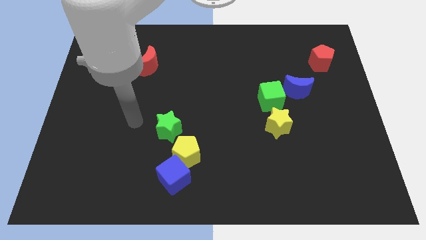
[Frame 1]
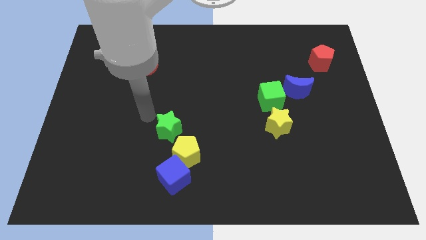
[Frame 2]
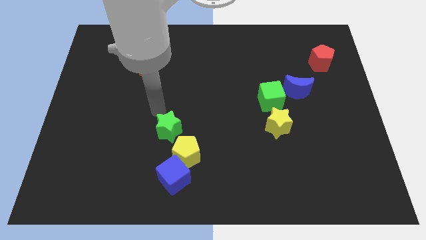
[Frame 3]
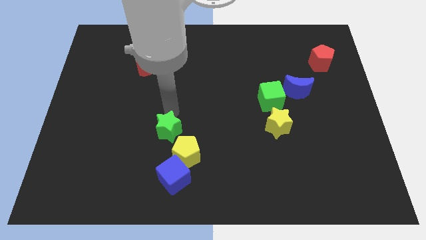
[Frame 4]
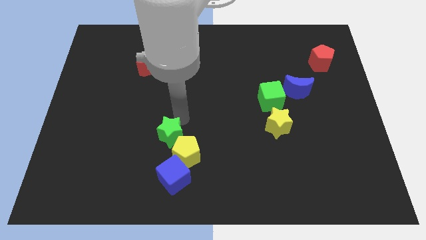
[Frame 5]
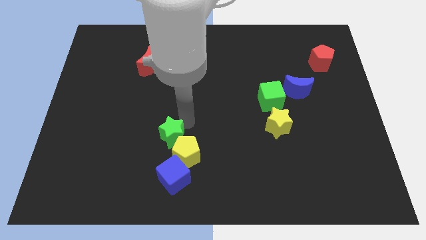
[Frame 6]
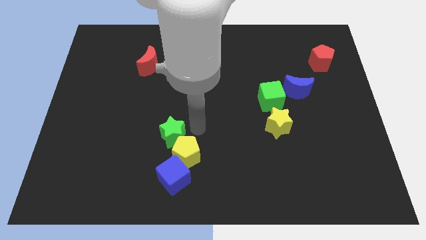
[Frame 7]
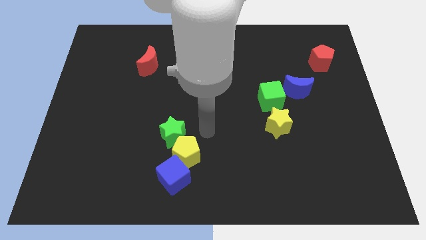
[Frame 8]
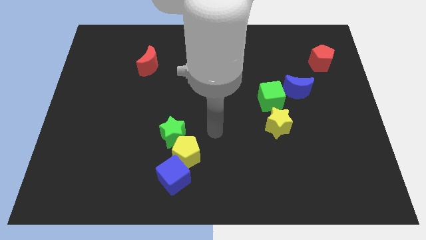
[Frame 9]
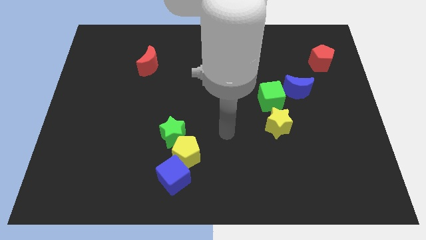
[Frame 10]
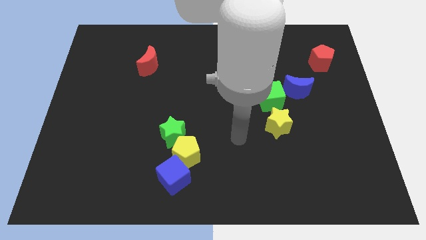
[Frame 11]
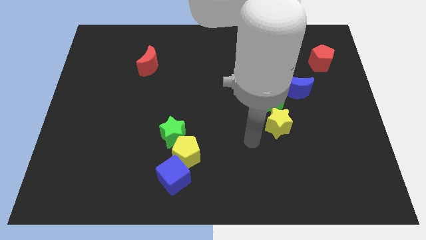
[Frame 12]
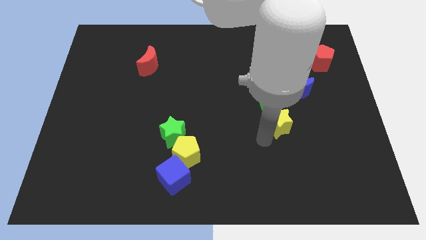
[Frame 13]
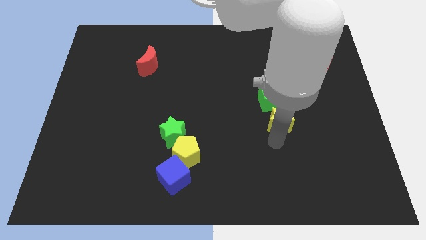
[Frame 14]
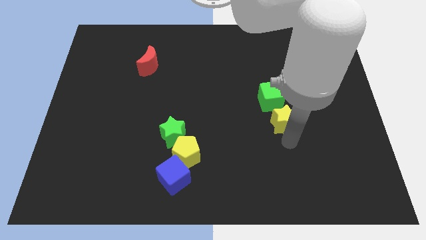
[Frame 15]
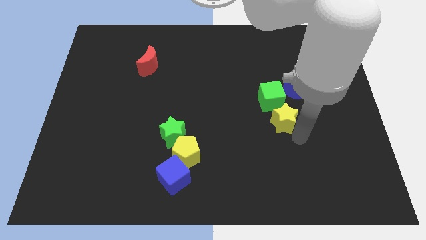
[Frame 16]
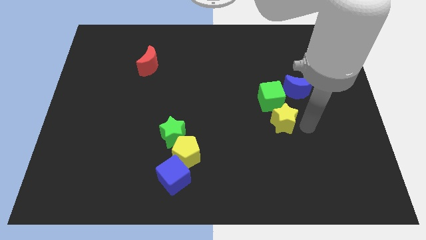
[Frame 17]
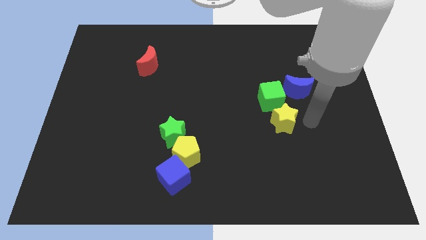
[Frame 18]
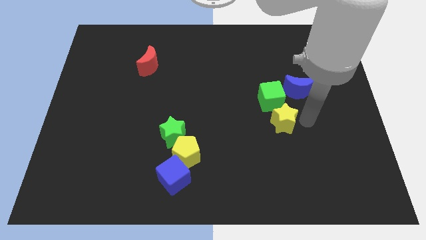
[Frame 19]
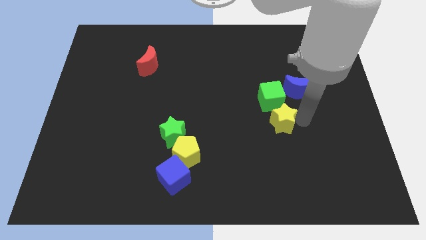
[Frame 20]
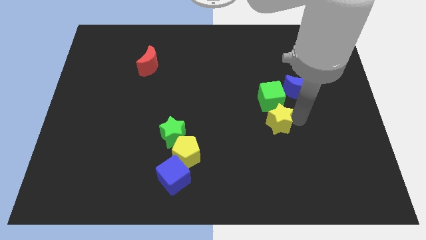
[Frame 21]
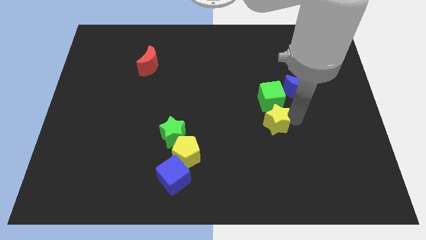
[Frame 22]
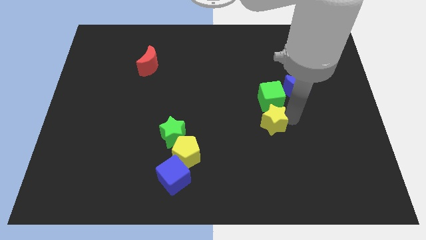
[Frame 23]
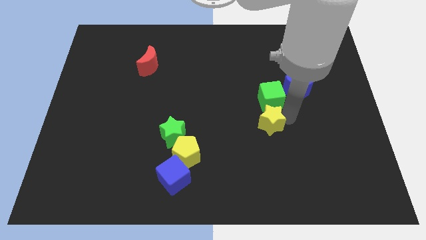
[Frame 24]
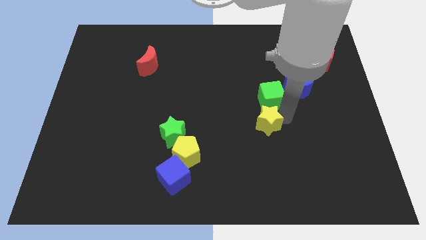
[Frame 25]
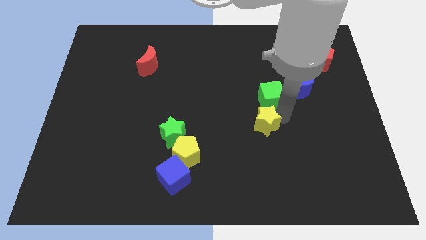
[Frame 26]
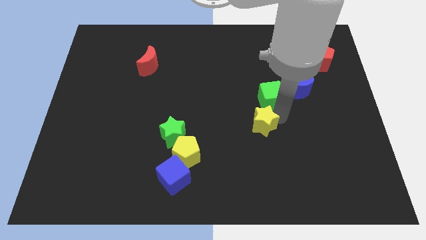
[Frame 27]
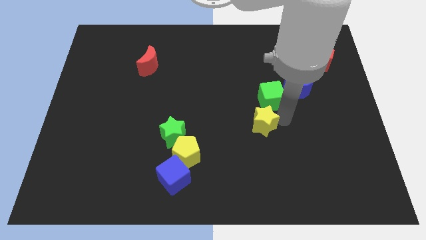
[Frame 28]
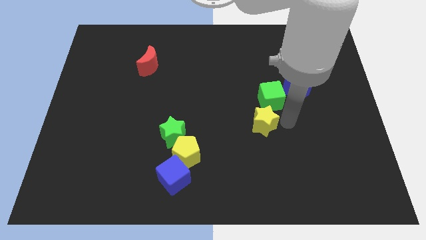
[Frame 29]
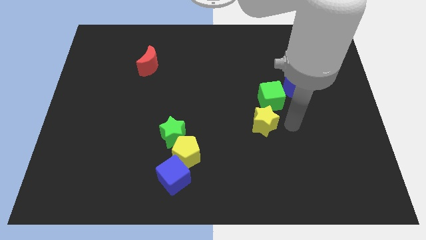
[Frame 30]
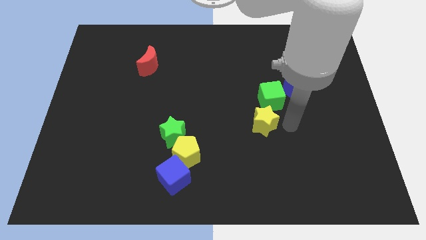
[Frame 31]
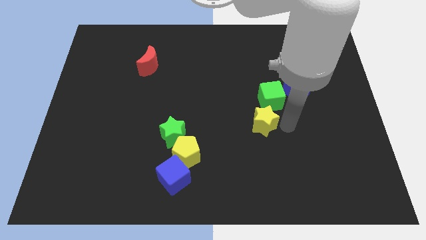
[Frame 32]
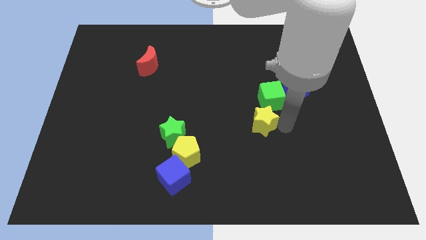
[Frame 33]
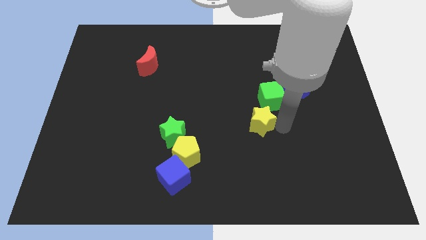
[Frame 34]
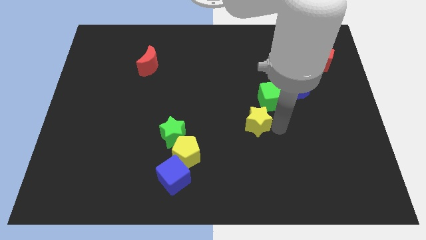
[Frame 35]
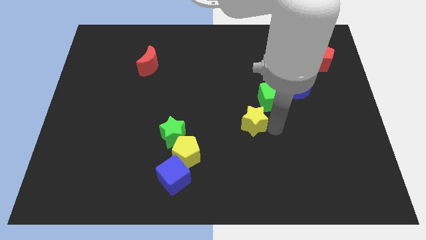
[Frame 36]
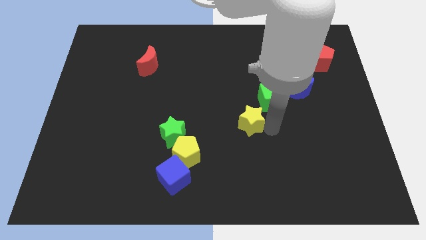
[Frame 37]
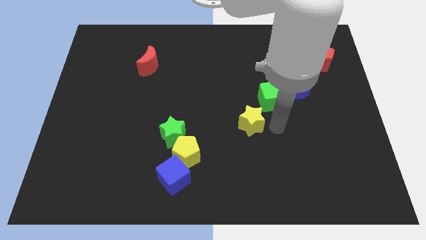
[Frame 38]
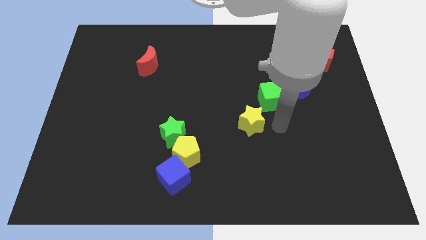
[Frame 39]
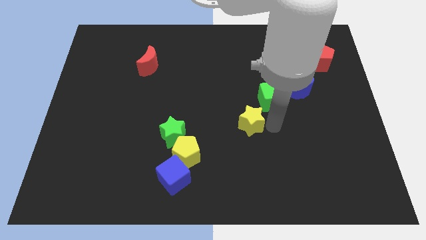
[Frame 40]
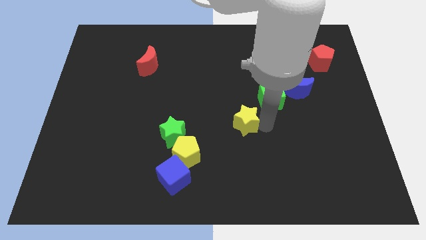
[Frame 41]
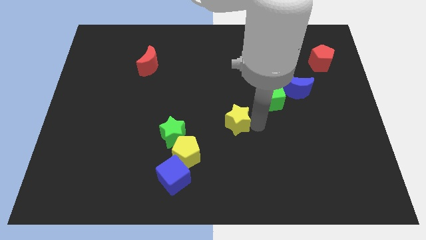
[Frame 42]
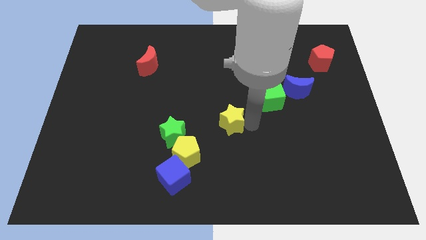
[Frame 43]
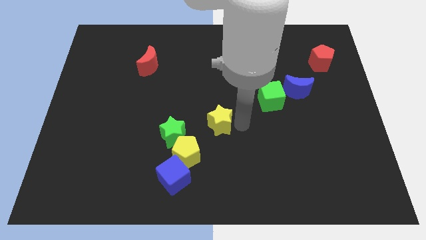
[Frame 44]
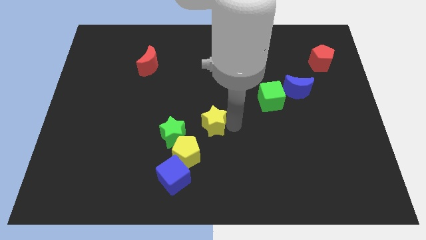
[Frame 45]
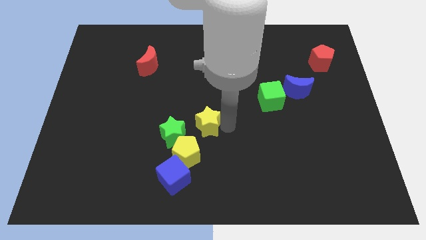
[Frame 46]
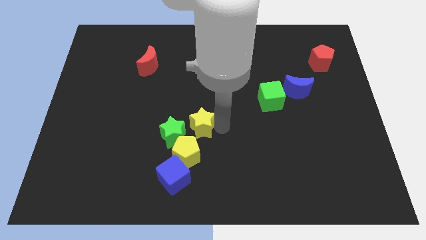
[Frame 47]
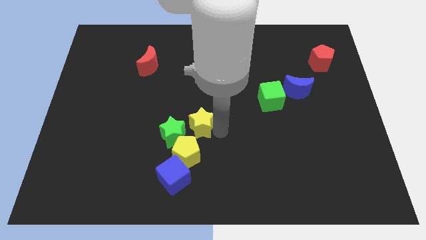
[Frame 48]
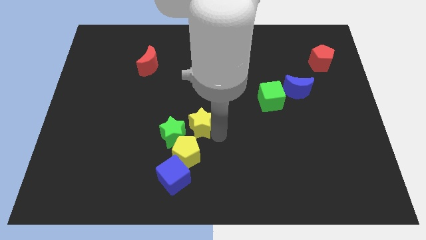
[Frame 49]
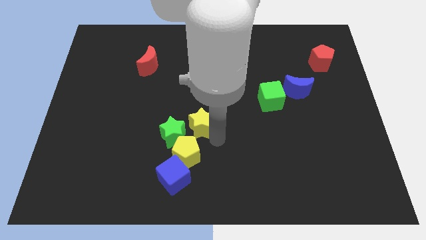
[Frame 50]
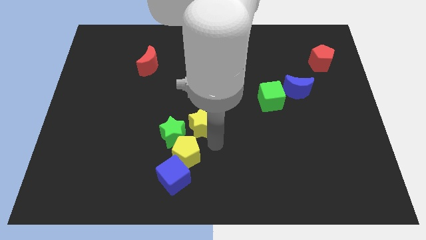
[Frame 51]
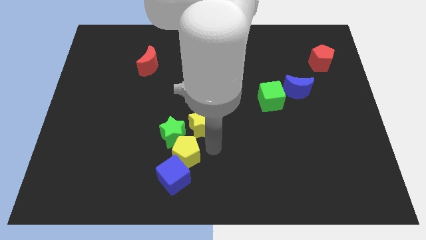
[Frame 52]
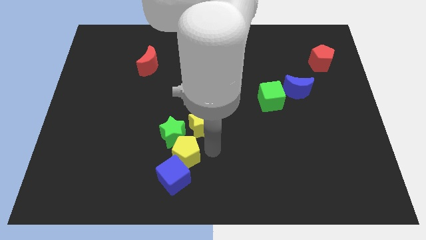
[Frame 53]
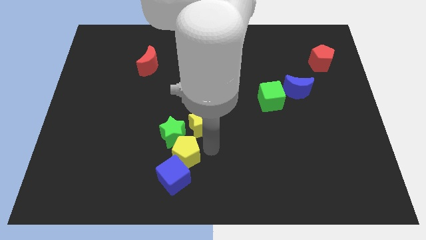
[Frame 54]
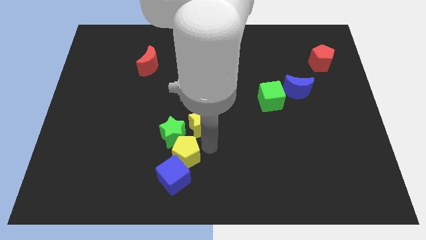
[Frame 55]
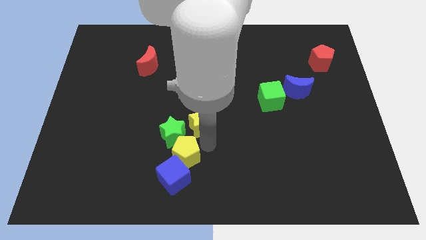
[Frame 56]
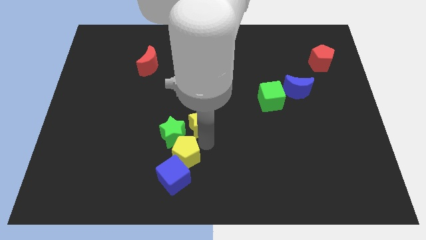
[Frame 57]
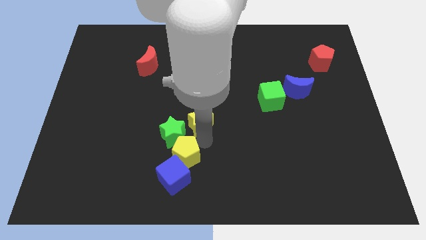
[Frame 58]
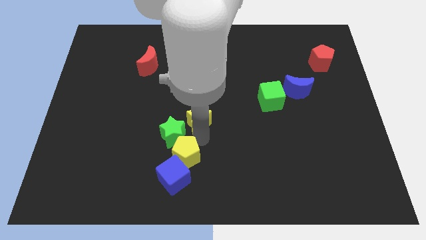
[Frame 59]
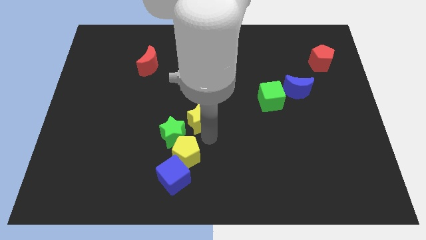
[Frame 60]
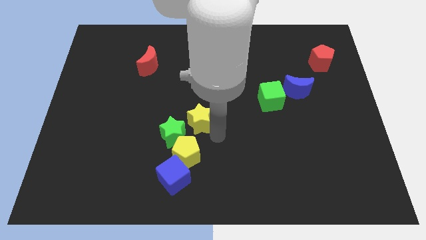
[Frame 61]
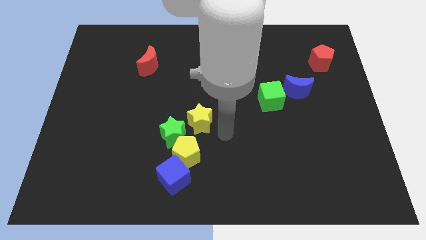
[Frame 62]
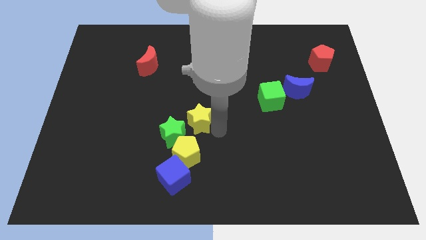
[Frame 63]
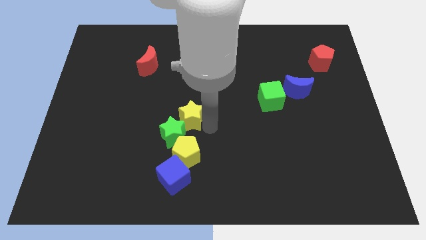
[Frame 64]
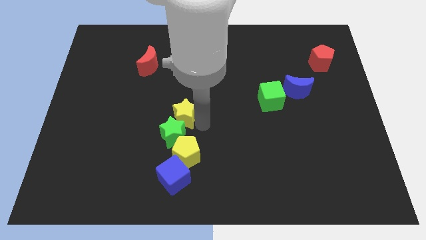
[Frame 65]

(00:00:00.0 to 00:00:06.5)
push the yellow star left

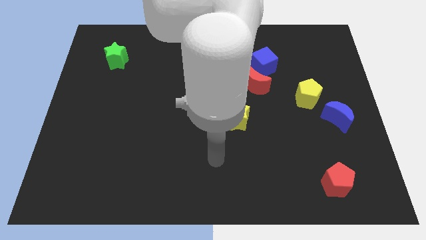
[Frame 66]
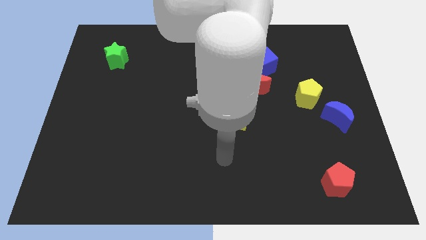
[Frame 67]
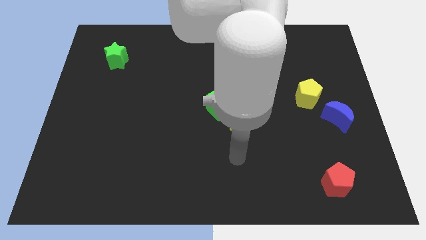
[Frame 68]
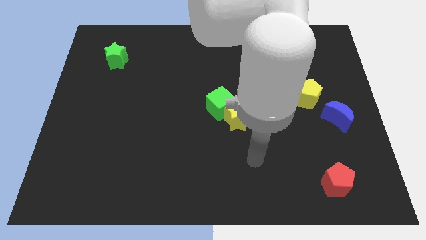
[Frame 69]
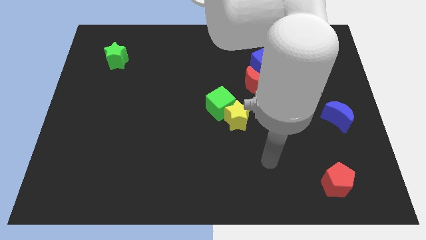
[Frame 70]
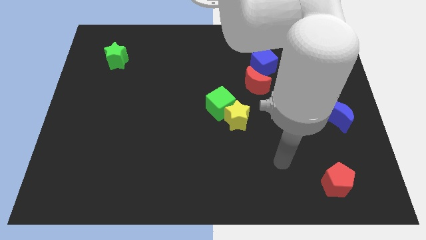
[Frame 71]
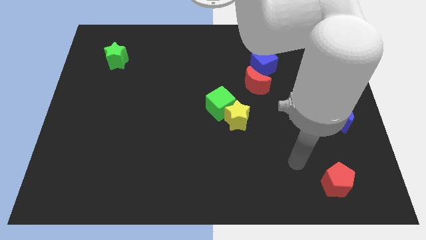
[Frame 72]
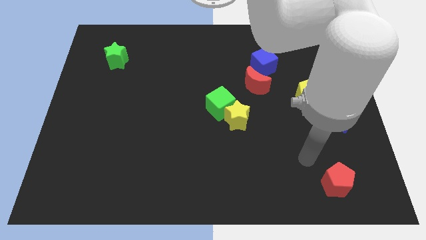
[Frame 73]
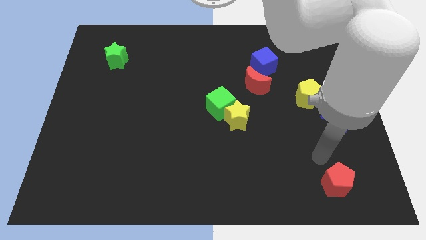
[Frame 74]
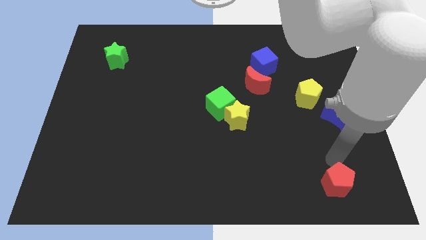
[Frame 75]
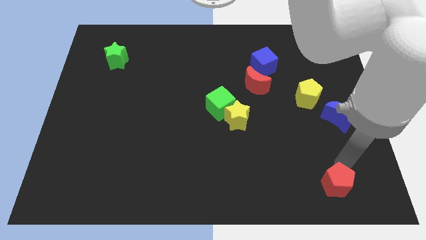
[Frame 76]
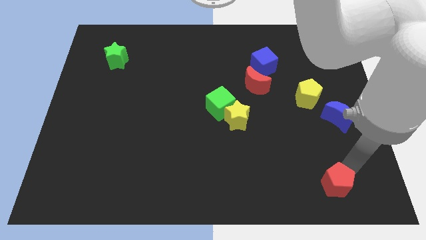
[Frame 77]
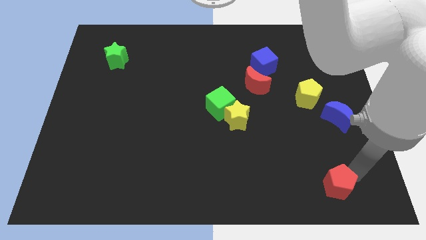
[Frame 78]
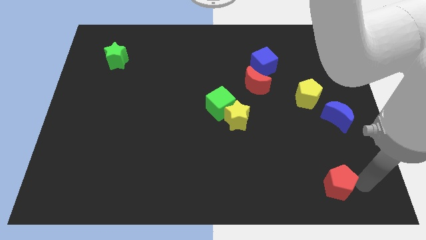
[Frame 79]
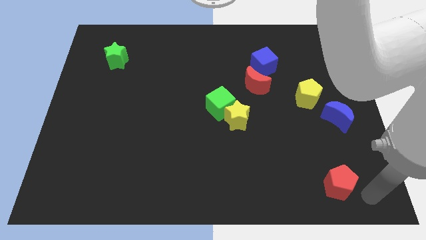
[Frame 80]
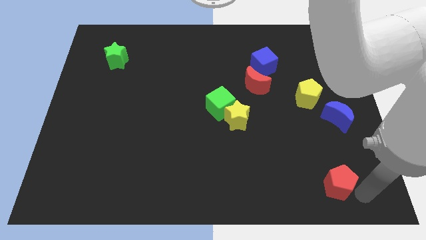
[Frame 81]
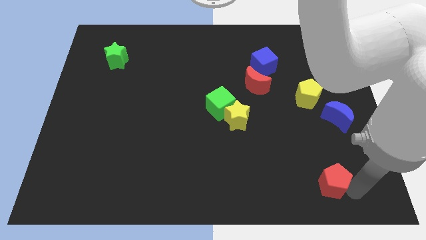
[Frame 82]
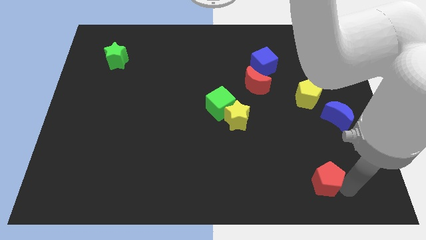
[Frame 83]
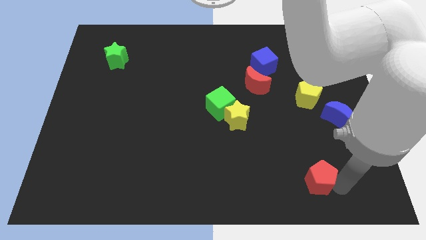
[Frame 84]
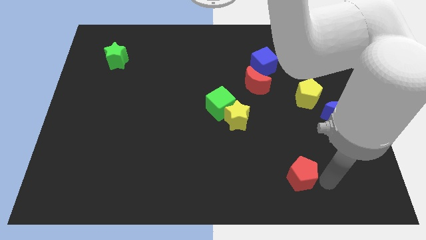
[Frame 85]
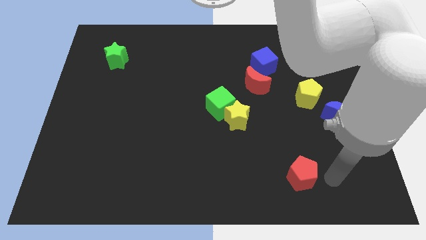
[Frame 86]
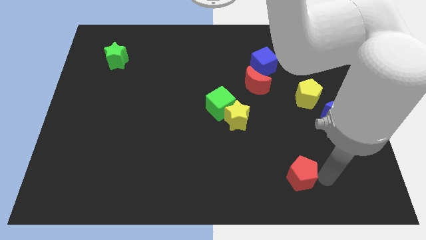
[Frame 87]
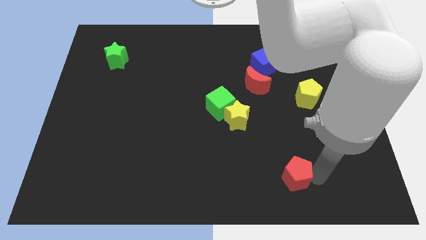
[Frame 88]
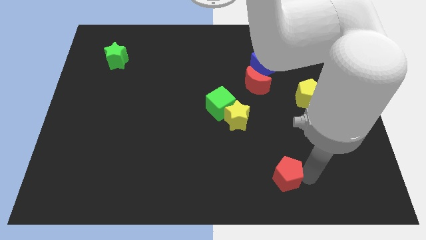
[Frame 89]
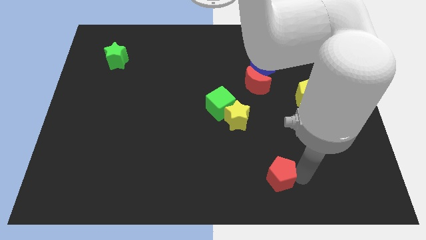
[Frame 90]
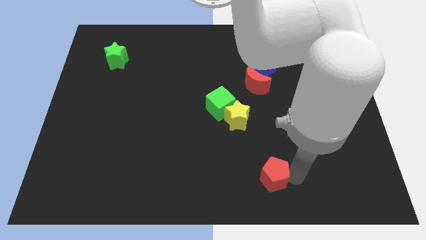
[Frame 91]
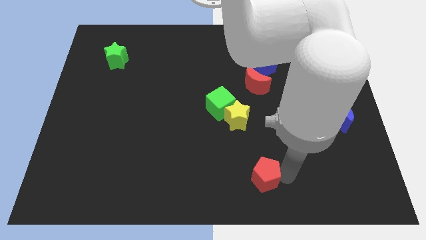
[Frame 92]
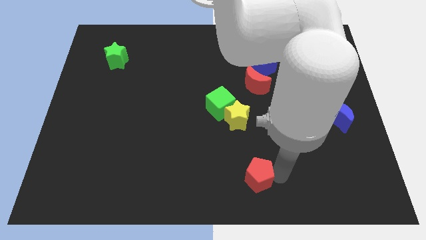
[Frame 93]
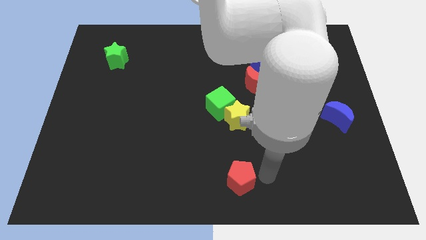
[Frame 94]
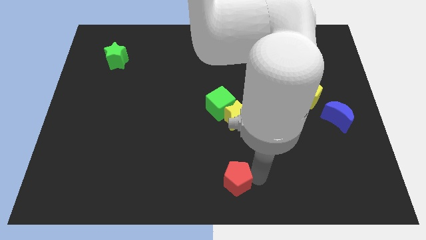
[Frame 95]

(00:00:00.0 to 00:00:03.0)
push the red pentagon to the left
